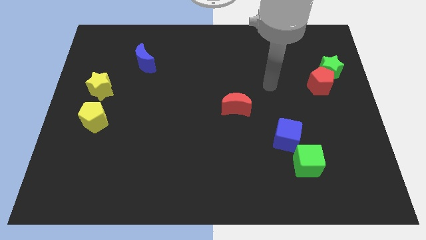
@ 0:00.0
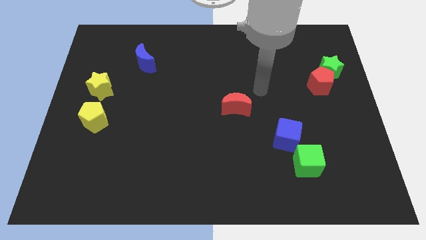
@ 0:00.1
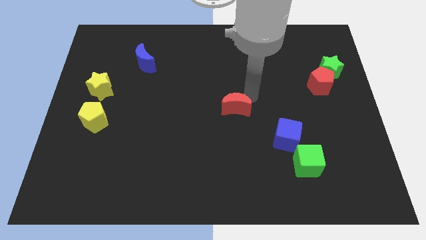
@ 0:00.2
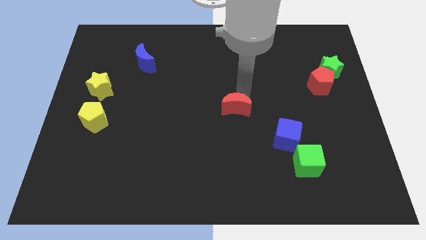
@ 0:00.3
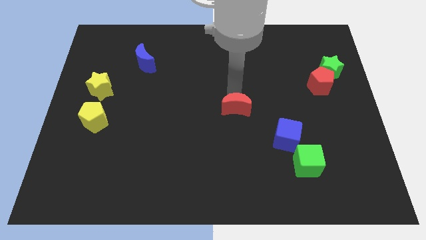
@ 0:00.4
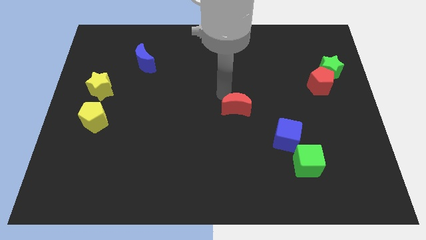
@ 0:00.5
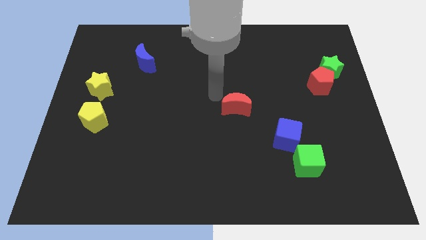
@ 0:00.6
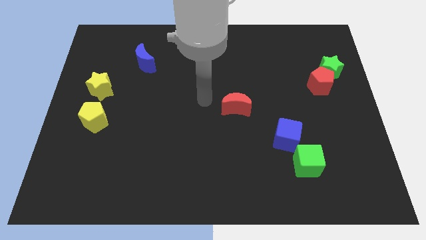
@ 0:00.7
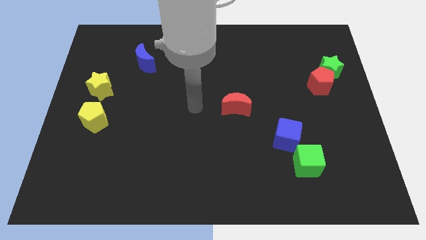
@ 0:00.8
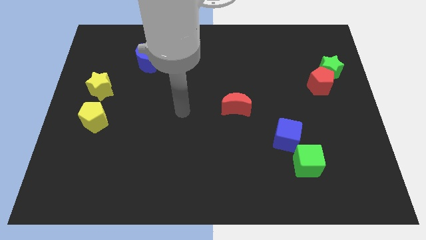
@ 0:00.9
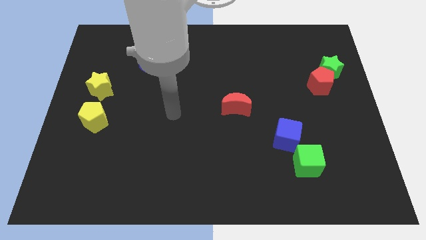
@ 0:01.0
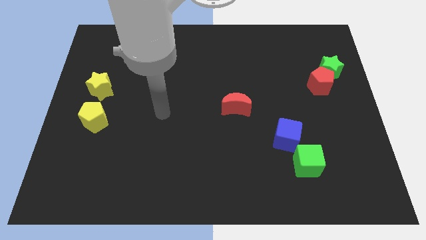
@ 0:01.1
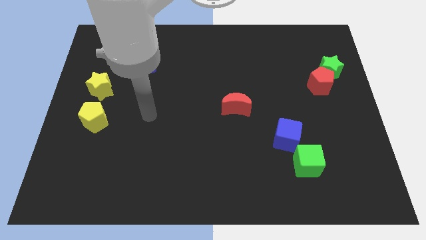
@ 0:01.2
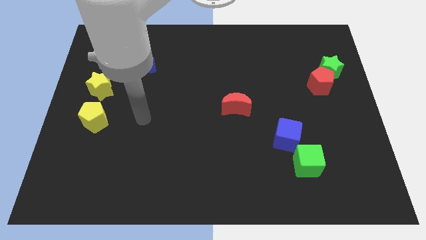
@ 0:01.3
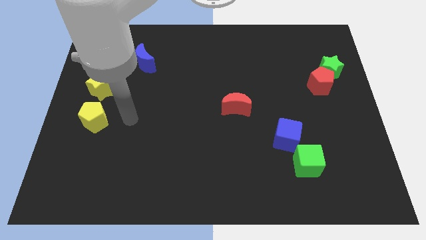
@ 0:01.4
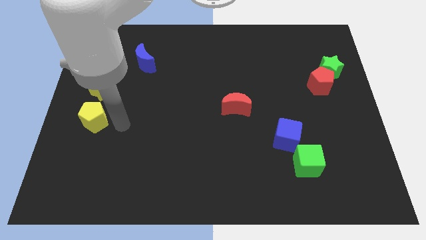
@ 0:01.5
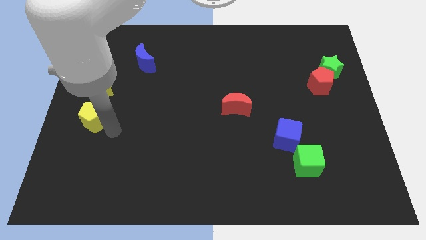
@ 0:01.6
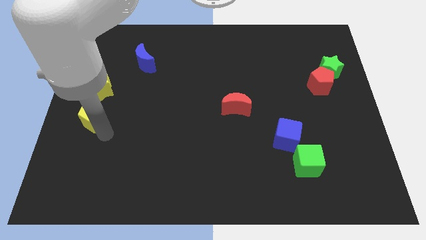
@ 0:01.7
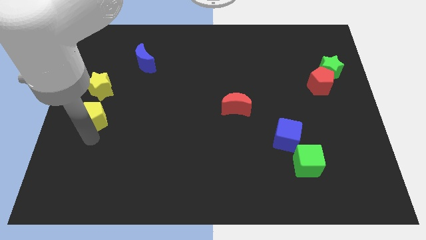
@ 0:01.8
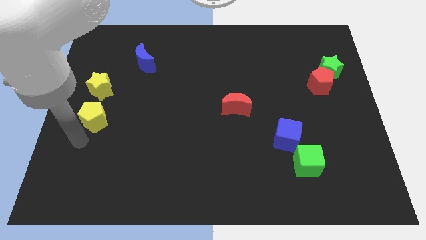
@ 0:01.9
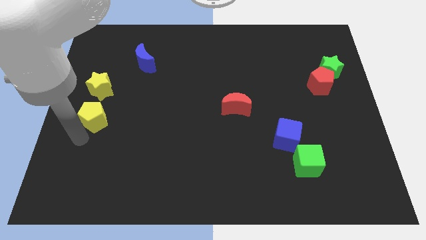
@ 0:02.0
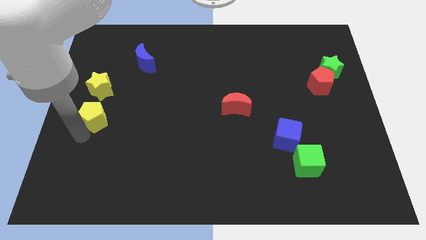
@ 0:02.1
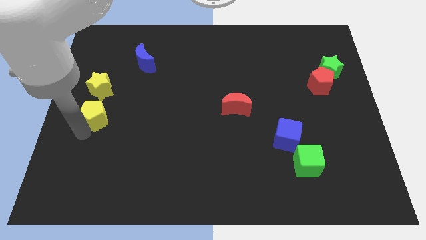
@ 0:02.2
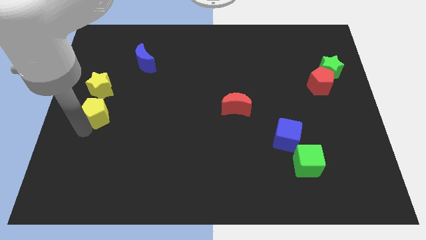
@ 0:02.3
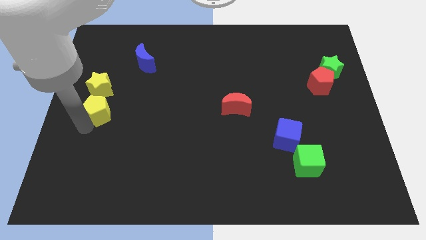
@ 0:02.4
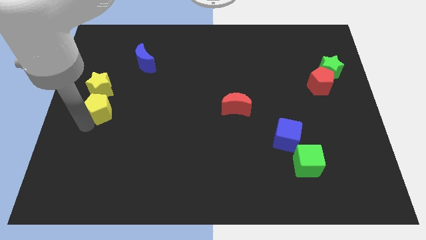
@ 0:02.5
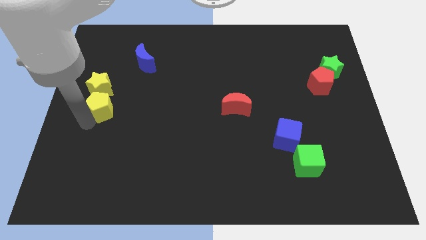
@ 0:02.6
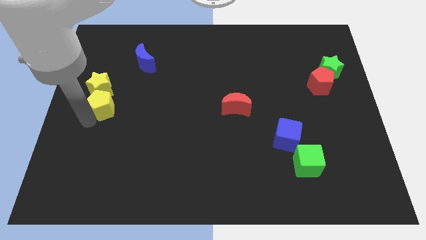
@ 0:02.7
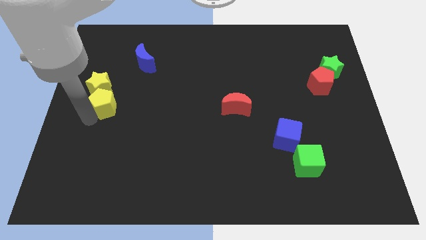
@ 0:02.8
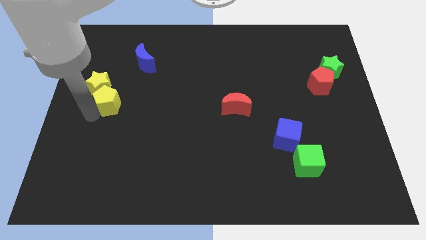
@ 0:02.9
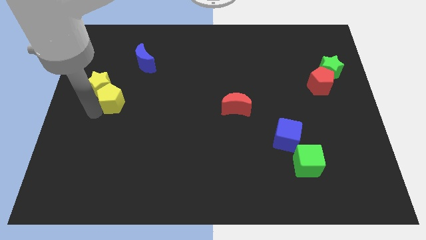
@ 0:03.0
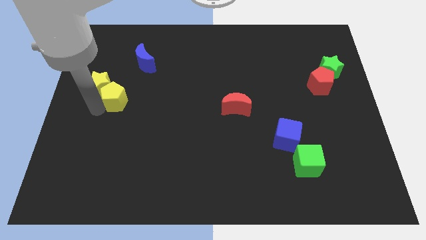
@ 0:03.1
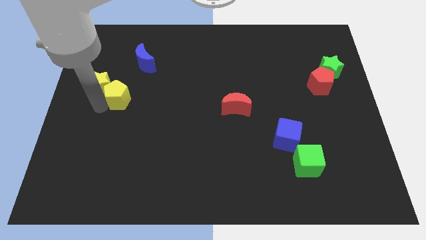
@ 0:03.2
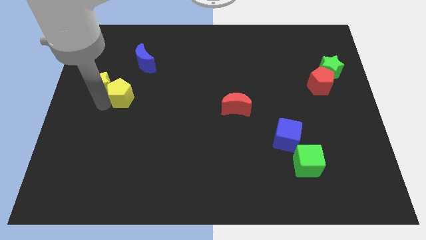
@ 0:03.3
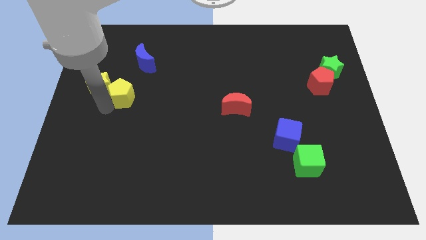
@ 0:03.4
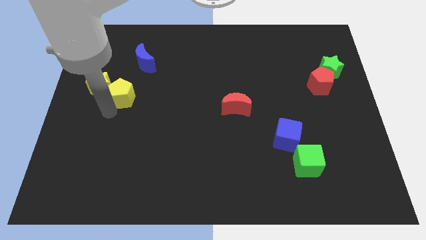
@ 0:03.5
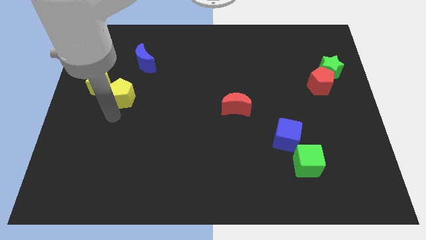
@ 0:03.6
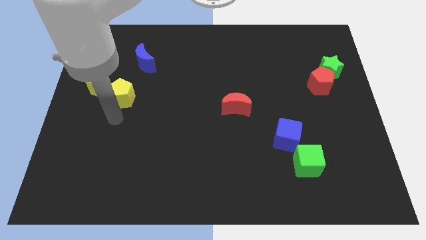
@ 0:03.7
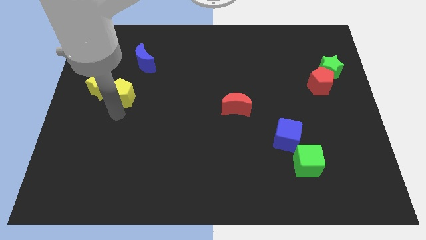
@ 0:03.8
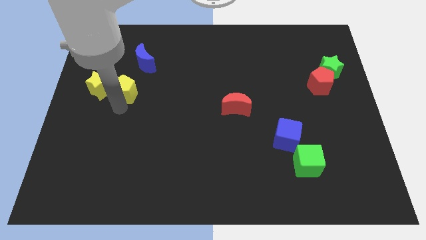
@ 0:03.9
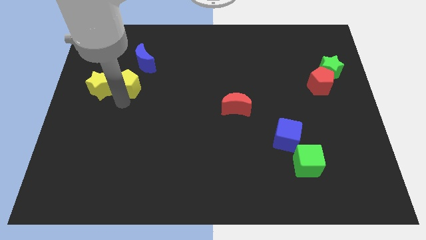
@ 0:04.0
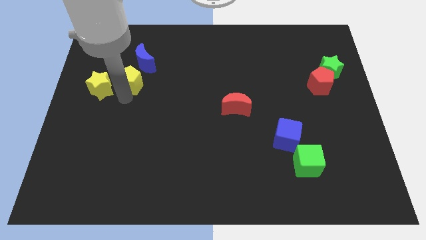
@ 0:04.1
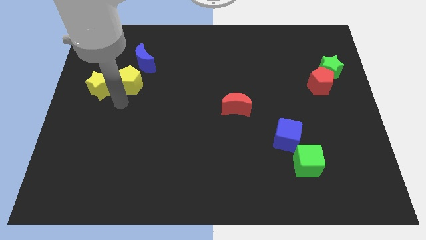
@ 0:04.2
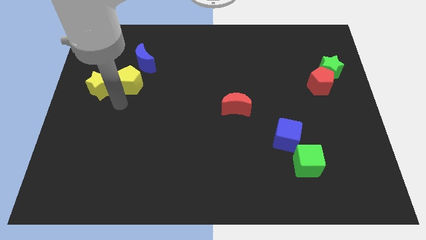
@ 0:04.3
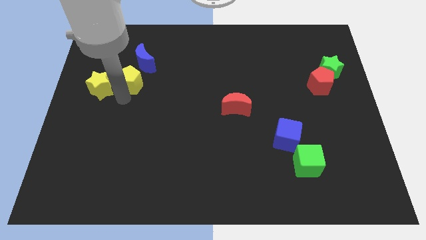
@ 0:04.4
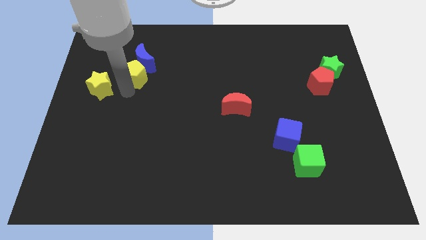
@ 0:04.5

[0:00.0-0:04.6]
slide the yellow pentagon towards the blue moon

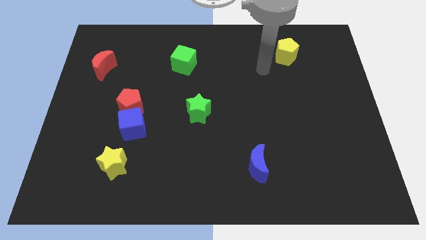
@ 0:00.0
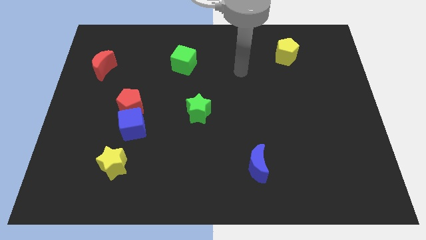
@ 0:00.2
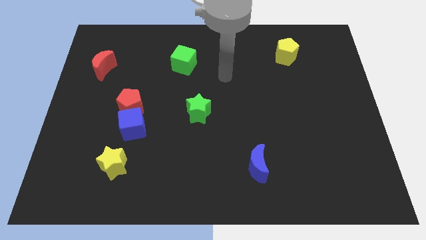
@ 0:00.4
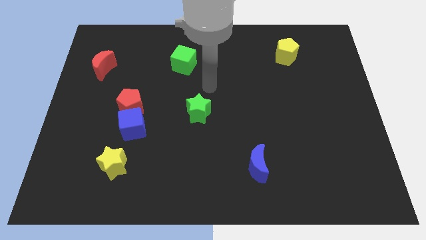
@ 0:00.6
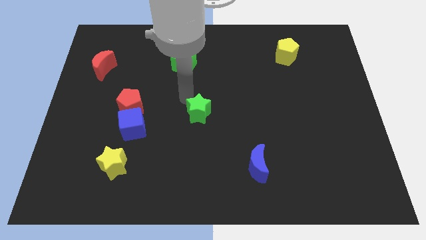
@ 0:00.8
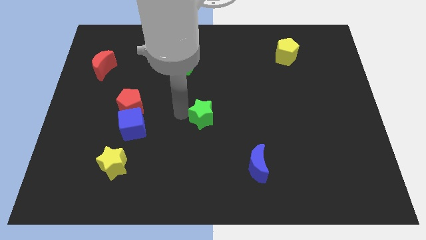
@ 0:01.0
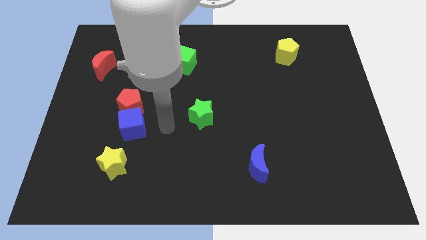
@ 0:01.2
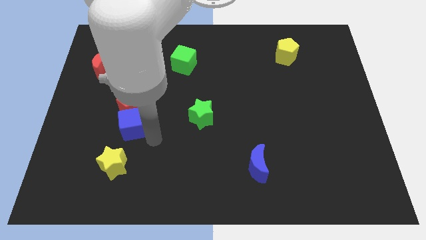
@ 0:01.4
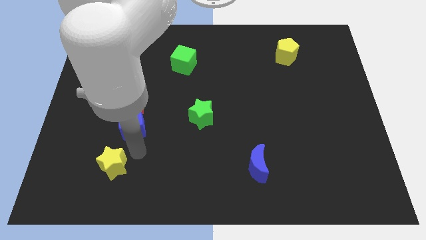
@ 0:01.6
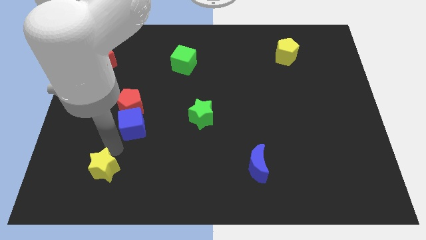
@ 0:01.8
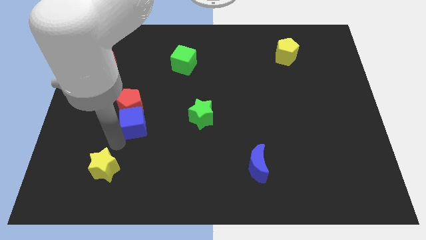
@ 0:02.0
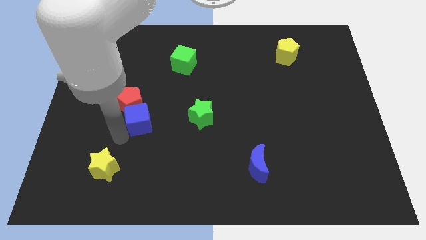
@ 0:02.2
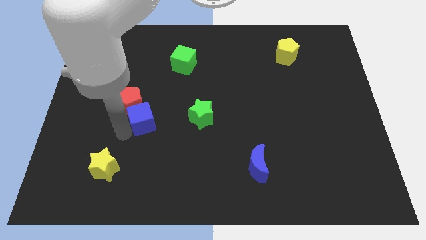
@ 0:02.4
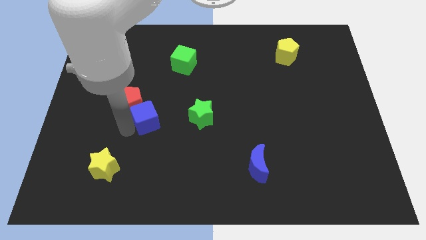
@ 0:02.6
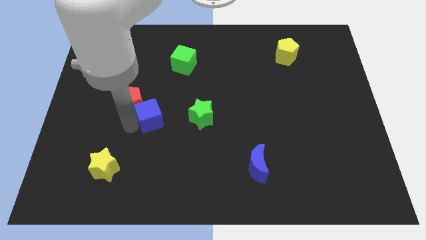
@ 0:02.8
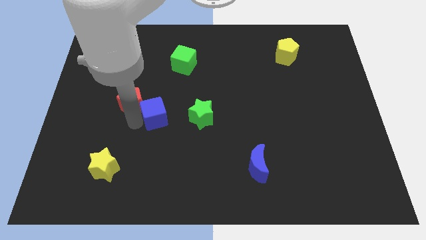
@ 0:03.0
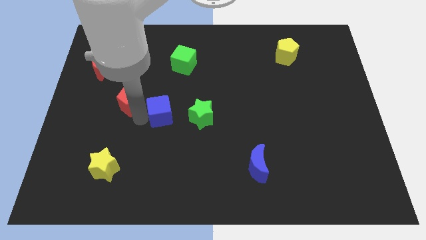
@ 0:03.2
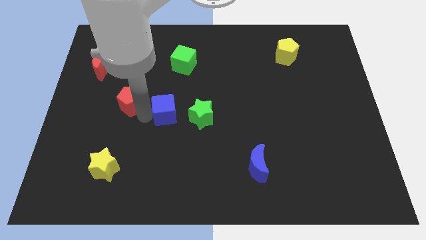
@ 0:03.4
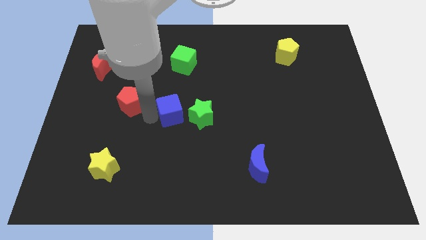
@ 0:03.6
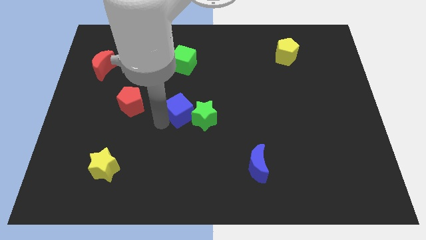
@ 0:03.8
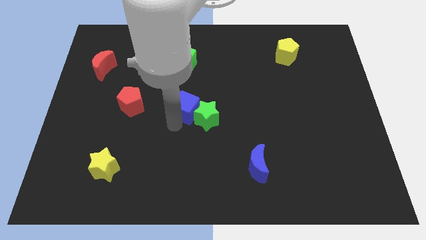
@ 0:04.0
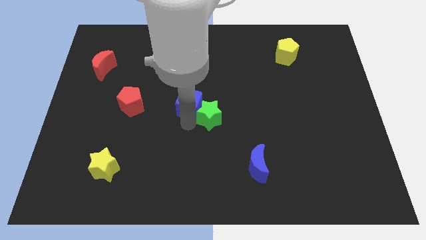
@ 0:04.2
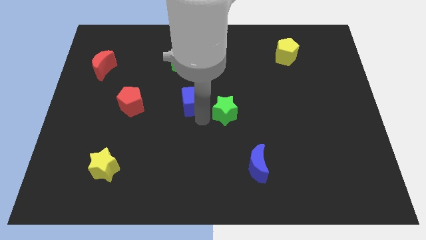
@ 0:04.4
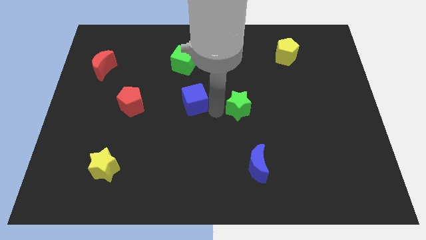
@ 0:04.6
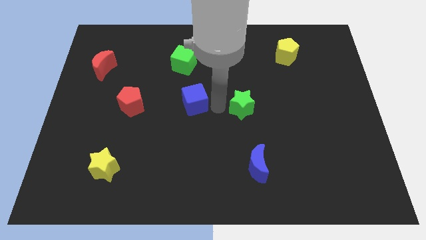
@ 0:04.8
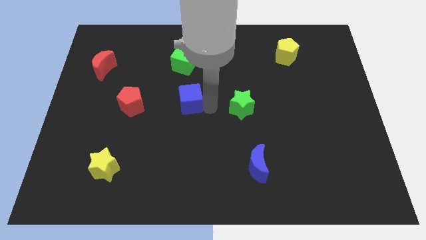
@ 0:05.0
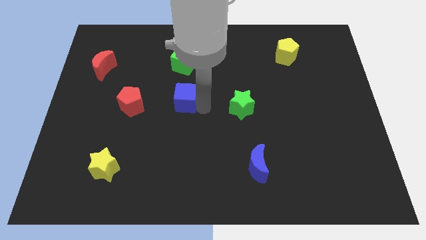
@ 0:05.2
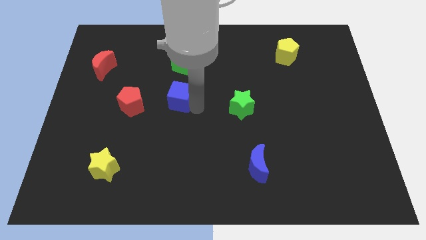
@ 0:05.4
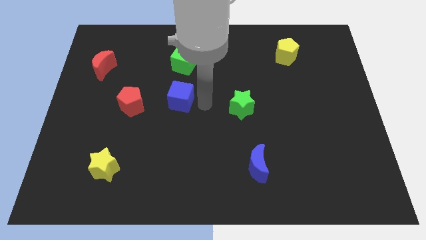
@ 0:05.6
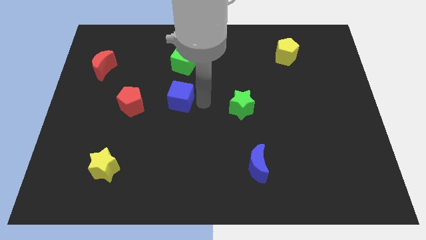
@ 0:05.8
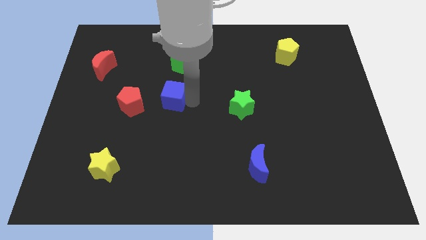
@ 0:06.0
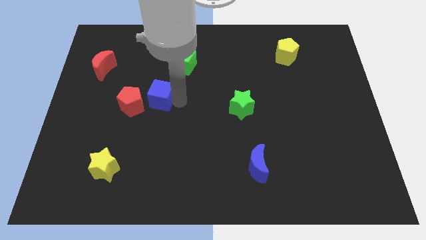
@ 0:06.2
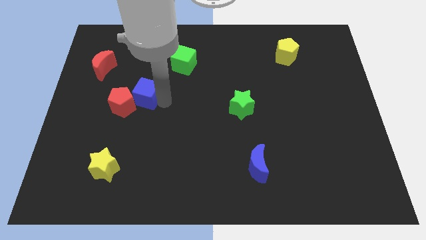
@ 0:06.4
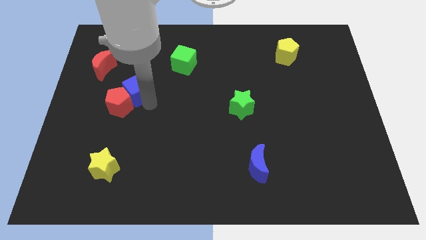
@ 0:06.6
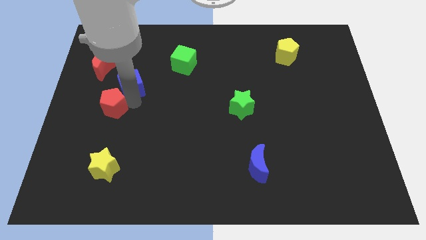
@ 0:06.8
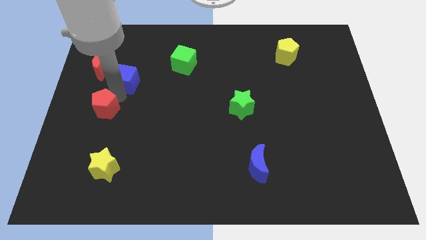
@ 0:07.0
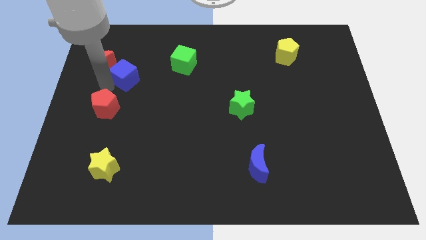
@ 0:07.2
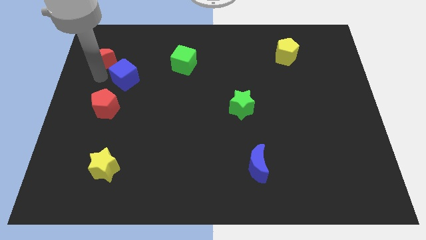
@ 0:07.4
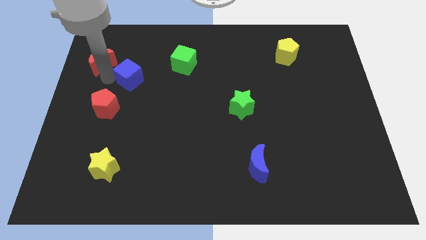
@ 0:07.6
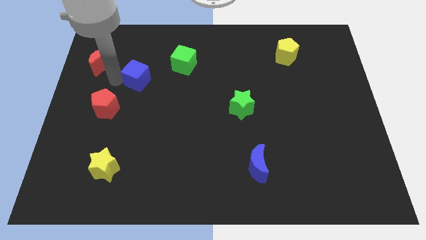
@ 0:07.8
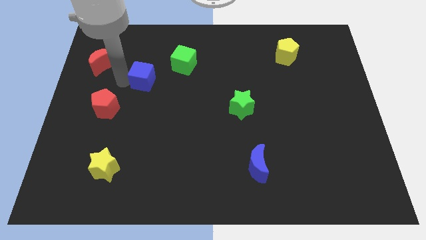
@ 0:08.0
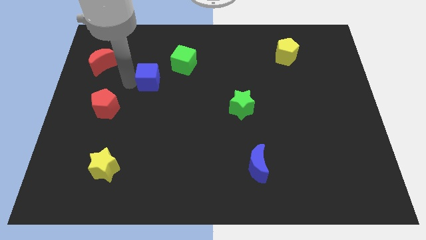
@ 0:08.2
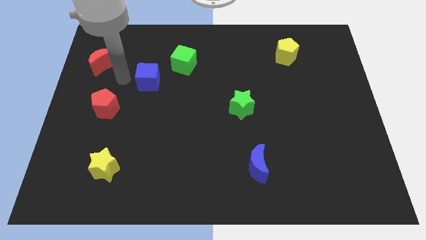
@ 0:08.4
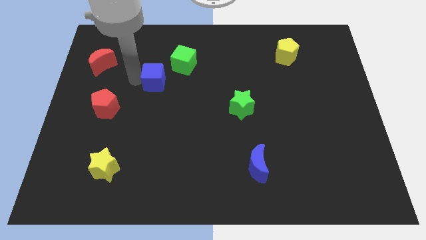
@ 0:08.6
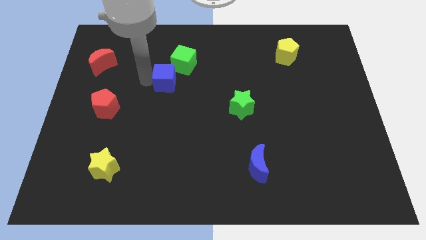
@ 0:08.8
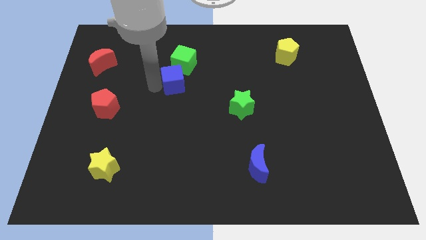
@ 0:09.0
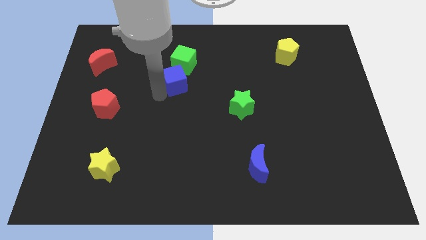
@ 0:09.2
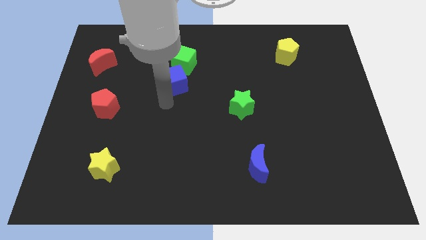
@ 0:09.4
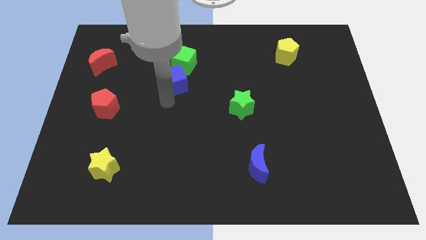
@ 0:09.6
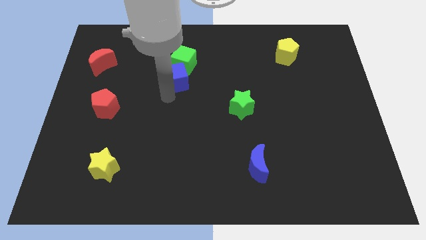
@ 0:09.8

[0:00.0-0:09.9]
move the blue cube to the green cube
